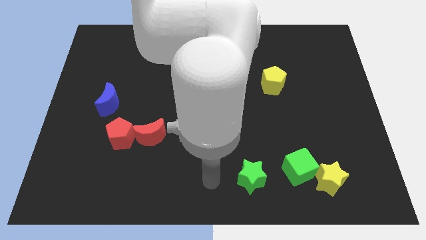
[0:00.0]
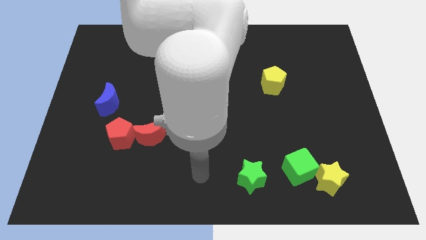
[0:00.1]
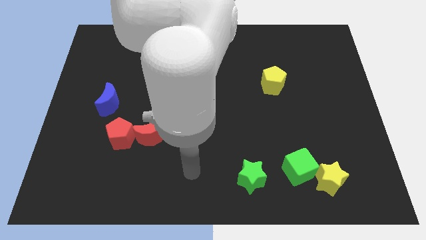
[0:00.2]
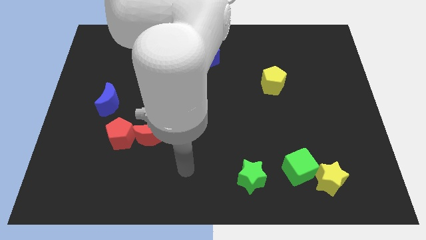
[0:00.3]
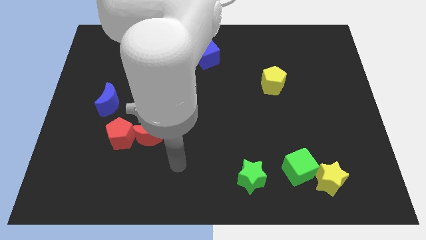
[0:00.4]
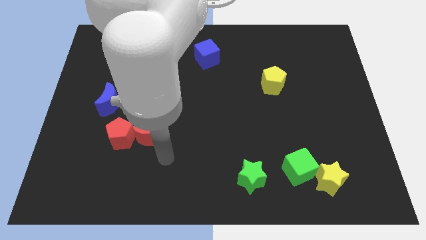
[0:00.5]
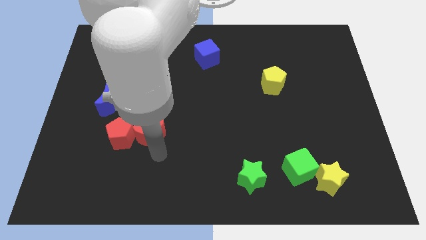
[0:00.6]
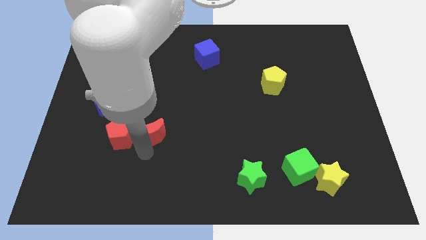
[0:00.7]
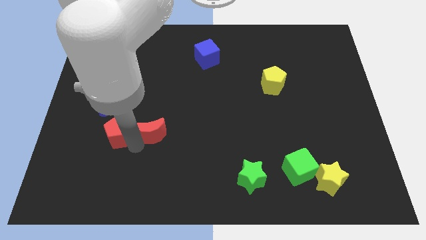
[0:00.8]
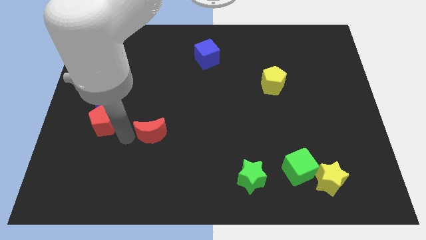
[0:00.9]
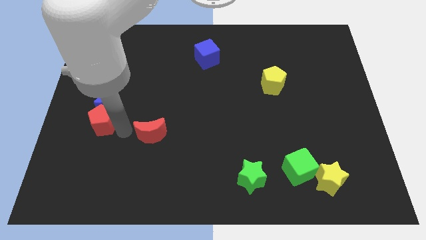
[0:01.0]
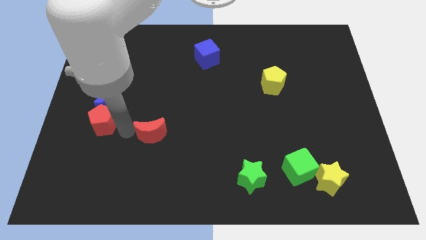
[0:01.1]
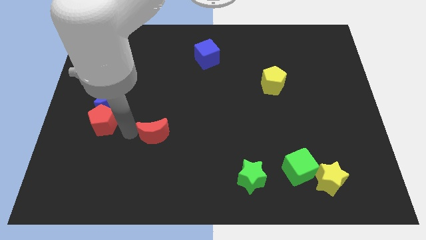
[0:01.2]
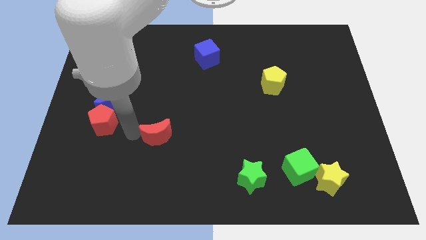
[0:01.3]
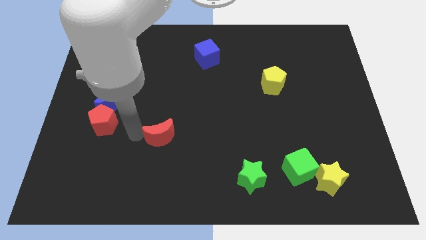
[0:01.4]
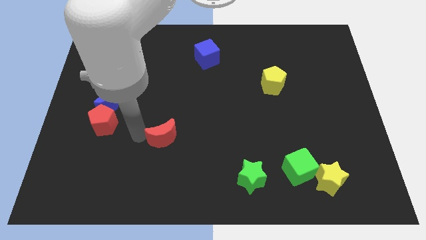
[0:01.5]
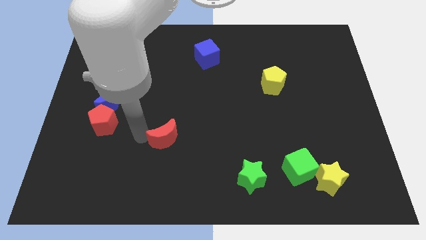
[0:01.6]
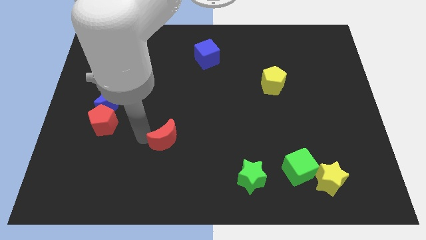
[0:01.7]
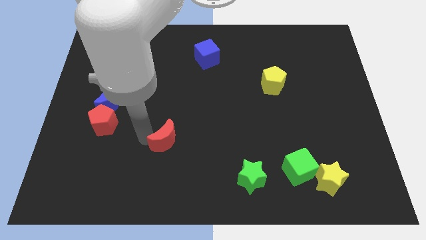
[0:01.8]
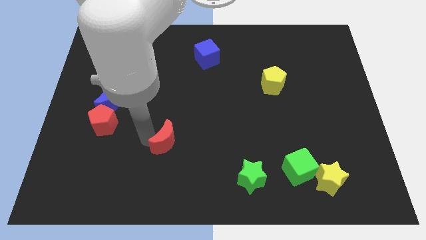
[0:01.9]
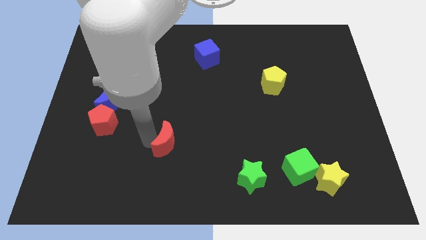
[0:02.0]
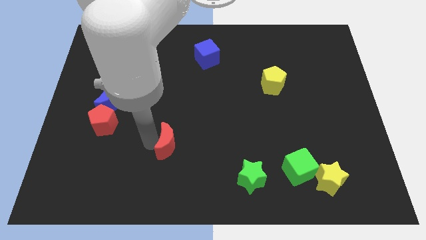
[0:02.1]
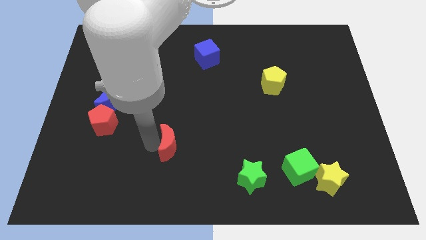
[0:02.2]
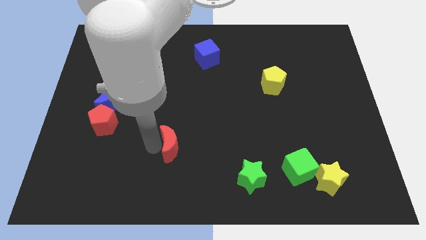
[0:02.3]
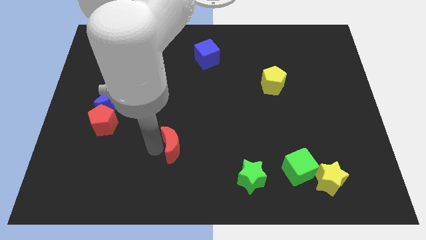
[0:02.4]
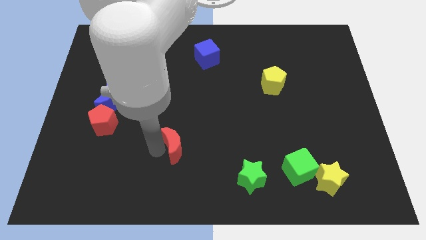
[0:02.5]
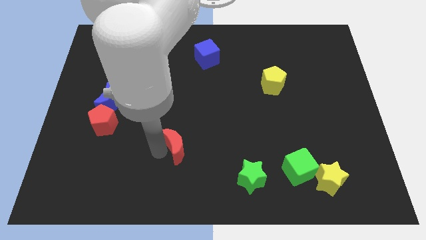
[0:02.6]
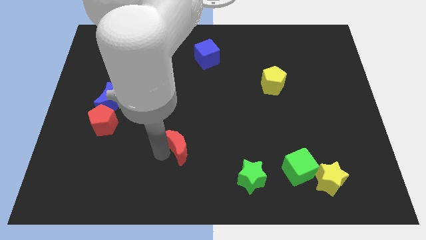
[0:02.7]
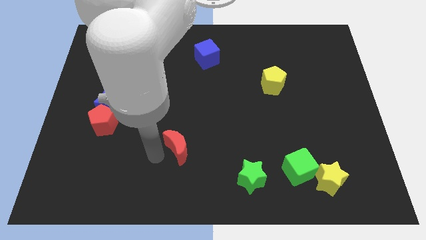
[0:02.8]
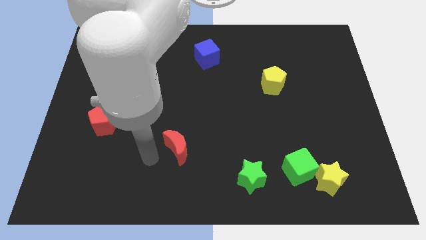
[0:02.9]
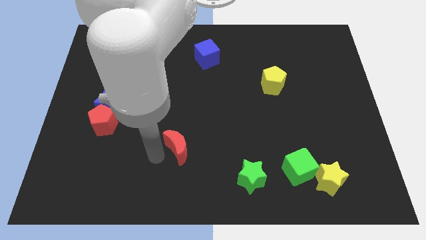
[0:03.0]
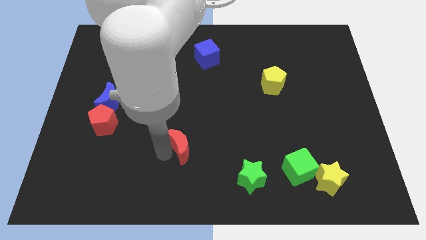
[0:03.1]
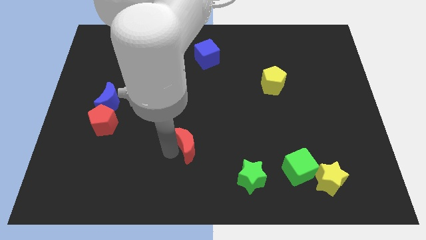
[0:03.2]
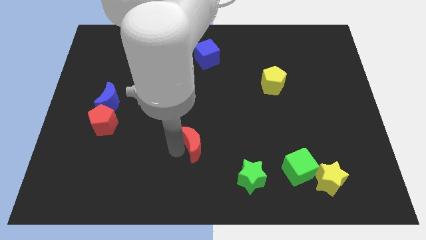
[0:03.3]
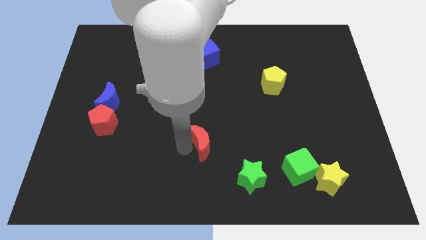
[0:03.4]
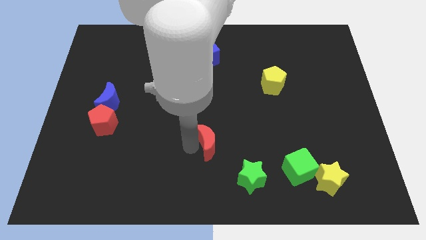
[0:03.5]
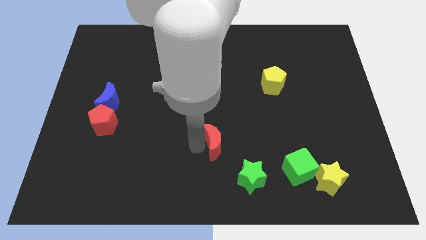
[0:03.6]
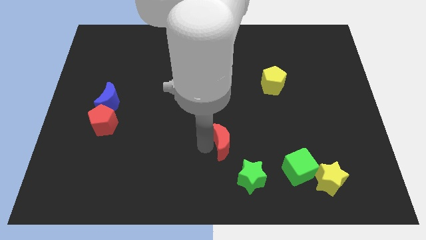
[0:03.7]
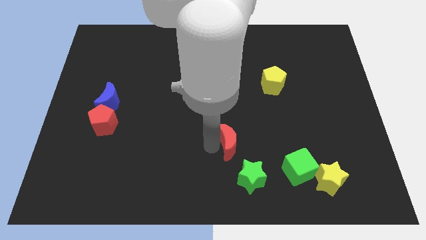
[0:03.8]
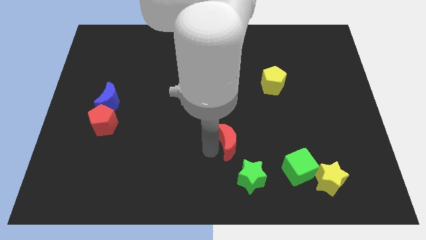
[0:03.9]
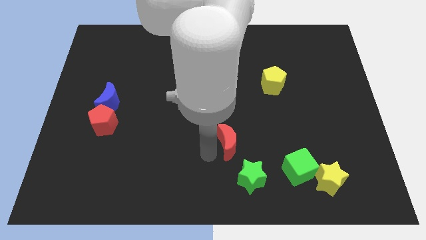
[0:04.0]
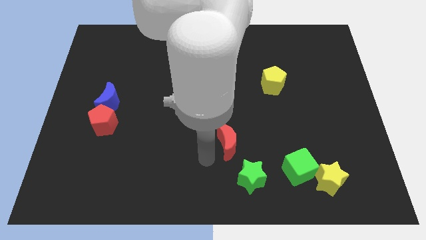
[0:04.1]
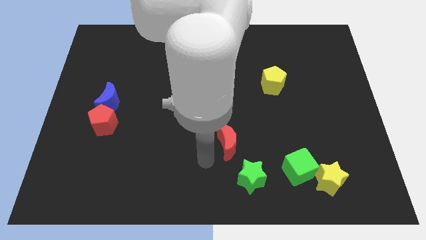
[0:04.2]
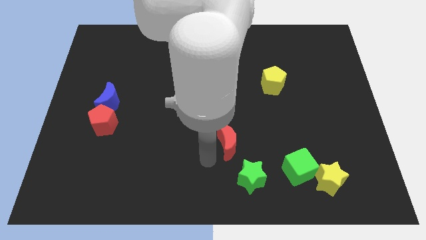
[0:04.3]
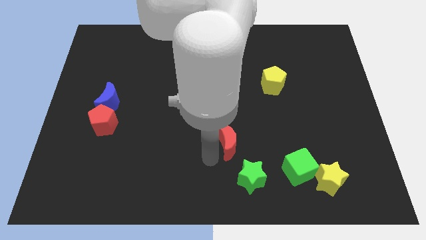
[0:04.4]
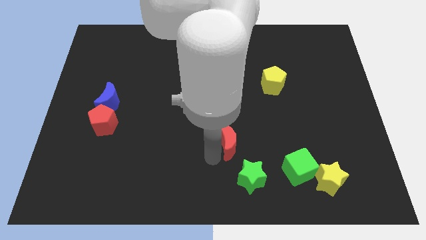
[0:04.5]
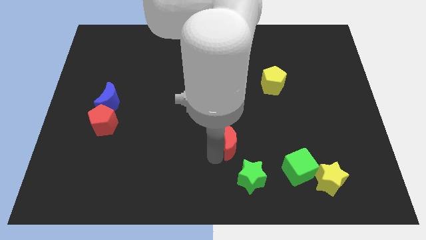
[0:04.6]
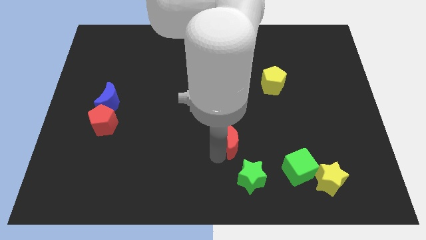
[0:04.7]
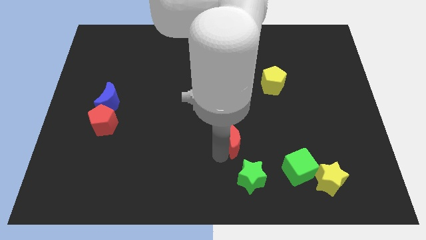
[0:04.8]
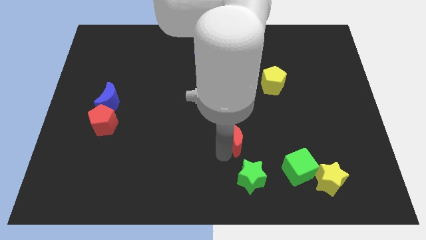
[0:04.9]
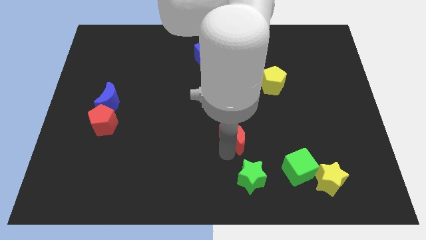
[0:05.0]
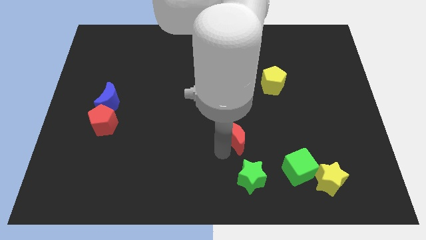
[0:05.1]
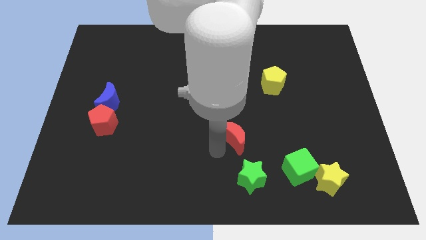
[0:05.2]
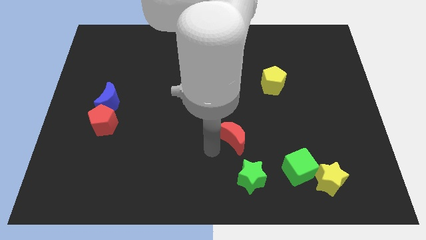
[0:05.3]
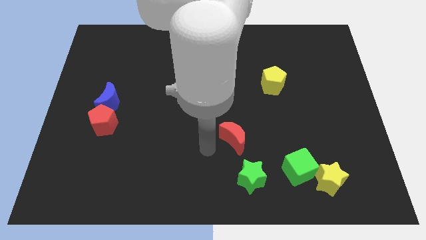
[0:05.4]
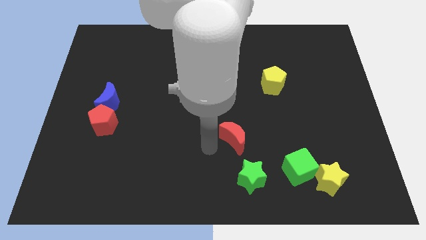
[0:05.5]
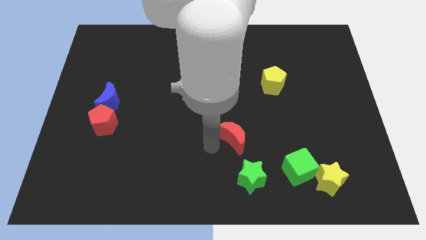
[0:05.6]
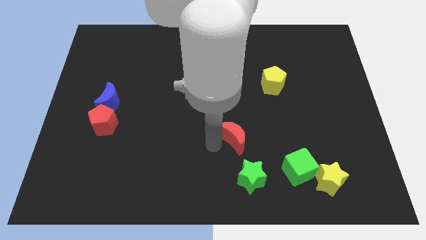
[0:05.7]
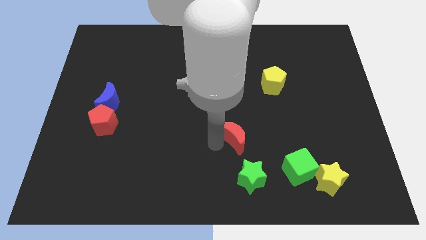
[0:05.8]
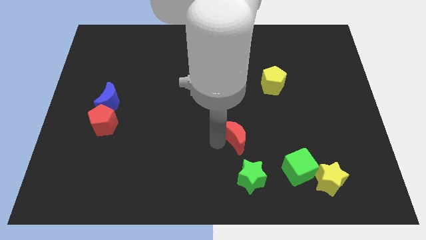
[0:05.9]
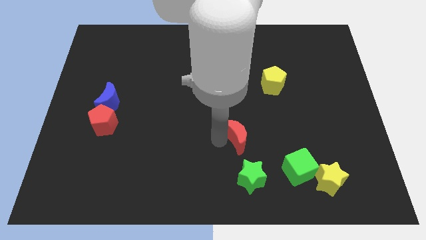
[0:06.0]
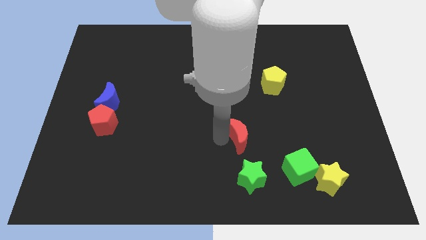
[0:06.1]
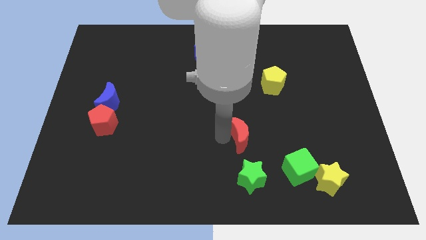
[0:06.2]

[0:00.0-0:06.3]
move the red moon to the right

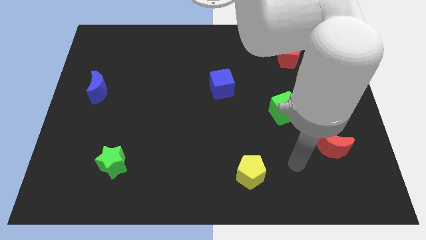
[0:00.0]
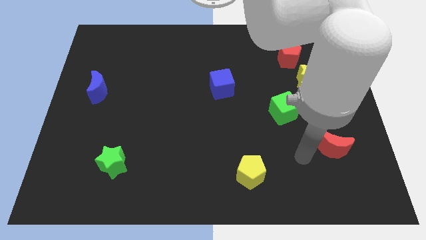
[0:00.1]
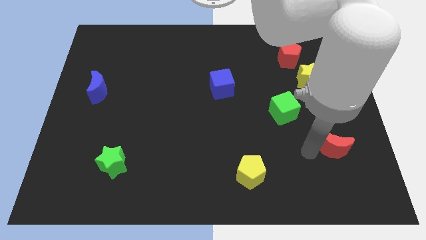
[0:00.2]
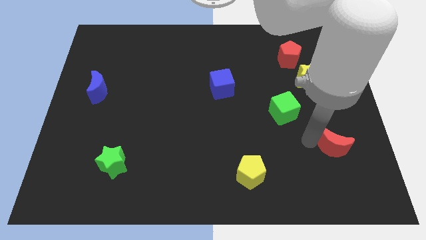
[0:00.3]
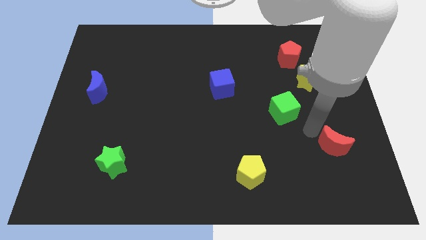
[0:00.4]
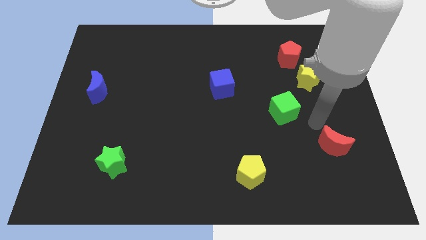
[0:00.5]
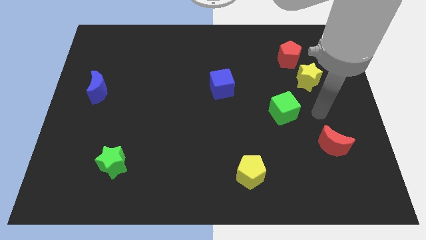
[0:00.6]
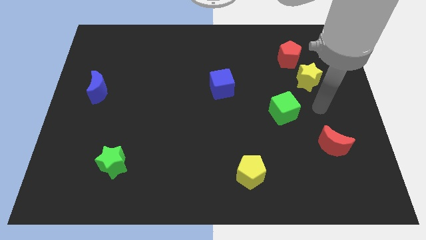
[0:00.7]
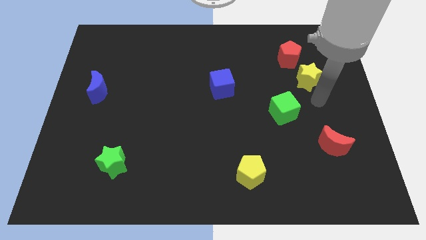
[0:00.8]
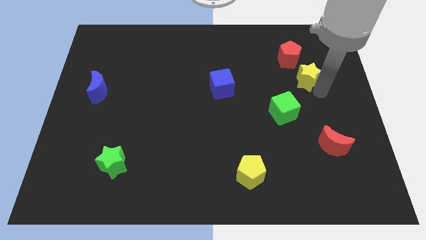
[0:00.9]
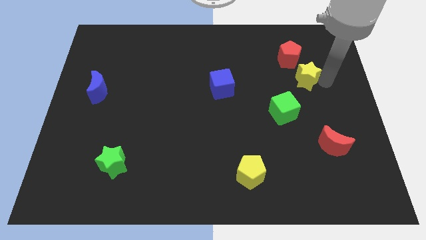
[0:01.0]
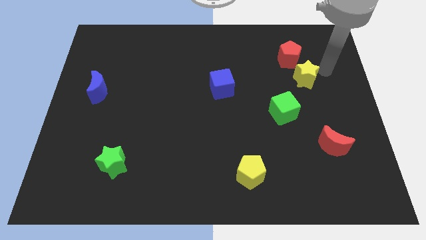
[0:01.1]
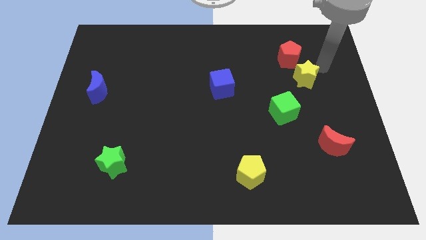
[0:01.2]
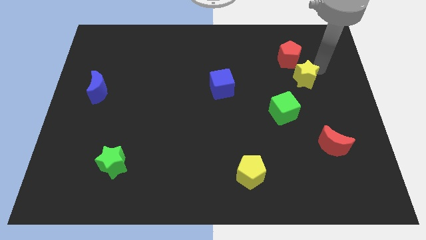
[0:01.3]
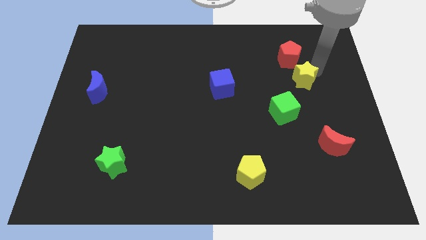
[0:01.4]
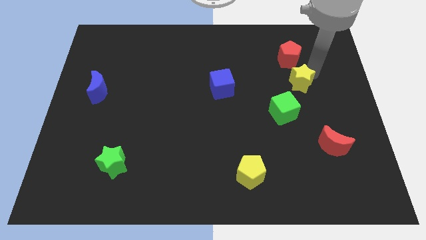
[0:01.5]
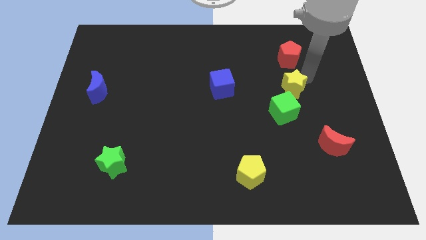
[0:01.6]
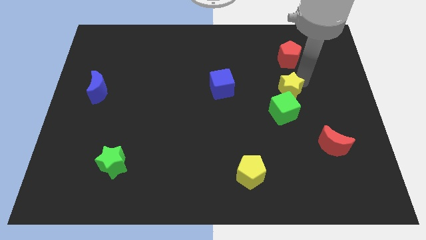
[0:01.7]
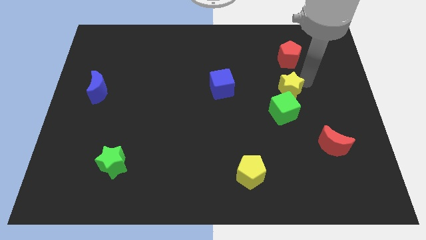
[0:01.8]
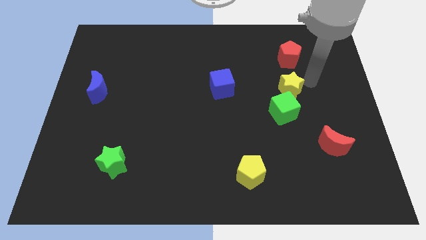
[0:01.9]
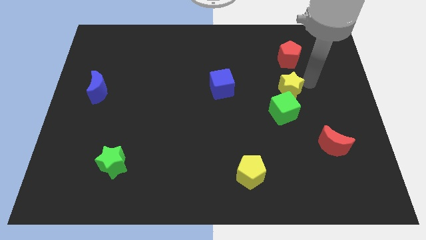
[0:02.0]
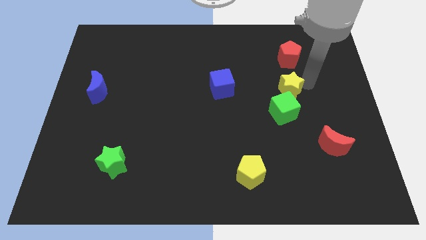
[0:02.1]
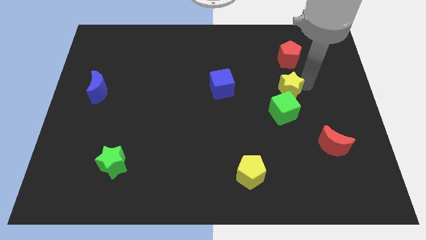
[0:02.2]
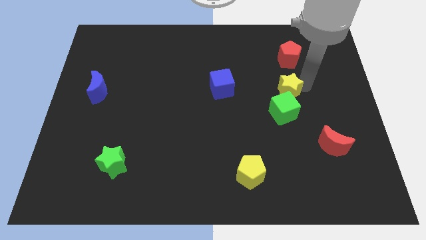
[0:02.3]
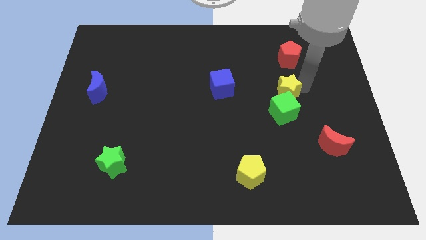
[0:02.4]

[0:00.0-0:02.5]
push the yellow star slightly downwards and left
